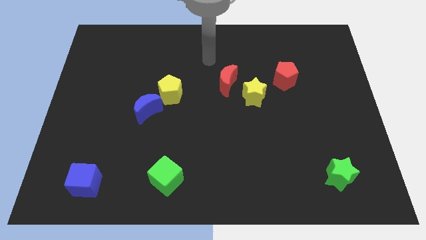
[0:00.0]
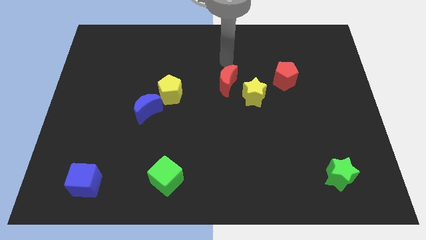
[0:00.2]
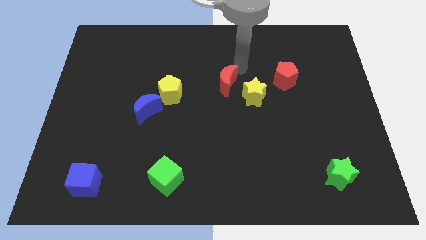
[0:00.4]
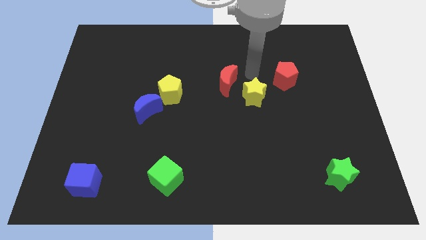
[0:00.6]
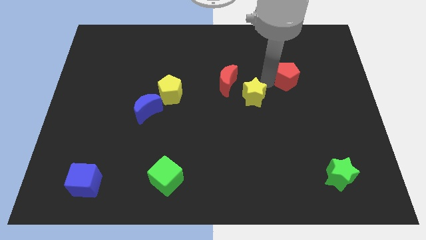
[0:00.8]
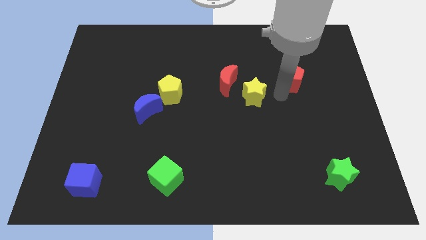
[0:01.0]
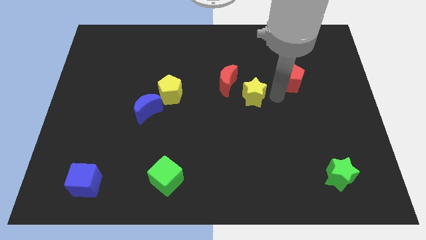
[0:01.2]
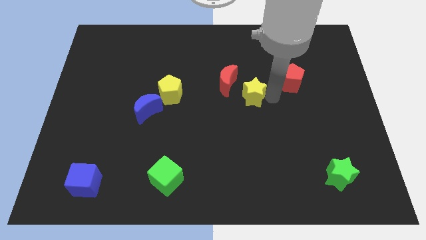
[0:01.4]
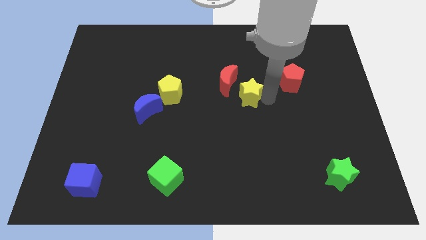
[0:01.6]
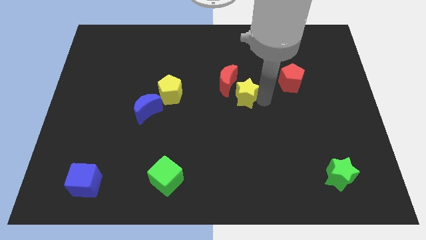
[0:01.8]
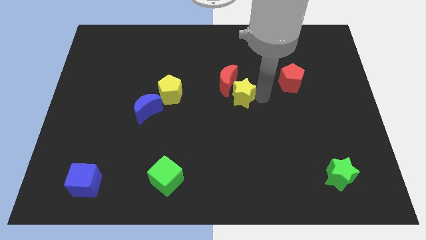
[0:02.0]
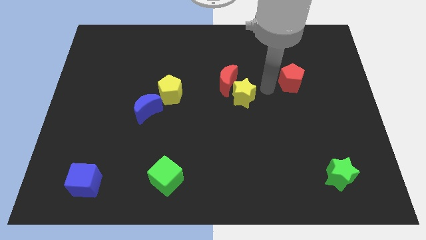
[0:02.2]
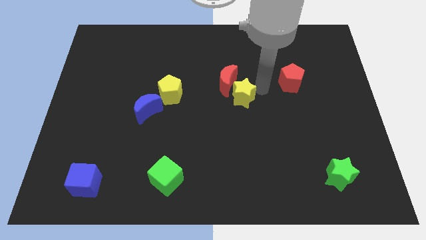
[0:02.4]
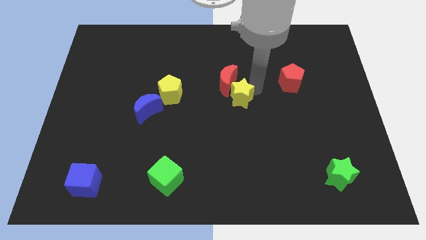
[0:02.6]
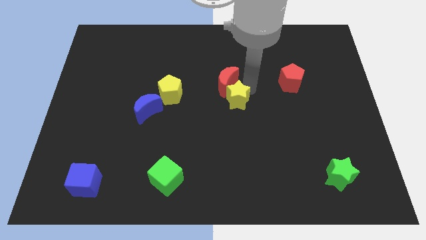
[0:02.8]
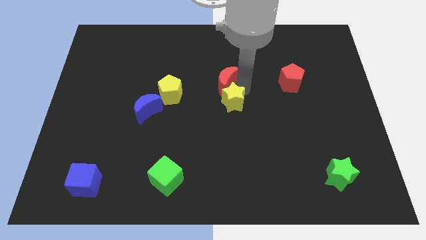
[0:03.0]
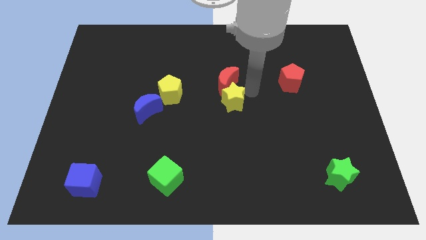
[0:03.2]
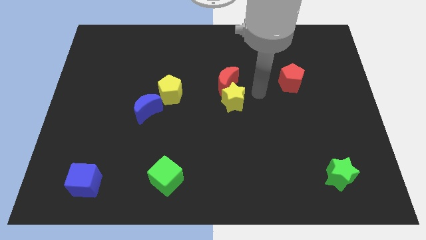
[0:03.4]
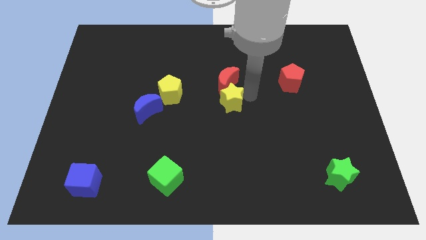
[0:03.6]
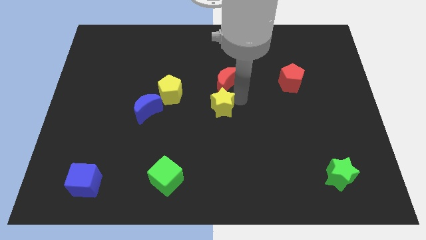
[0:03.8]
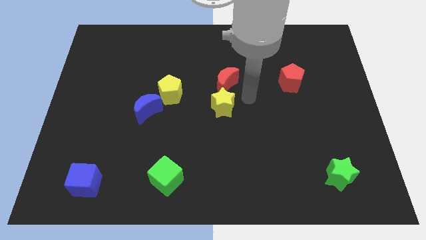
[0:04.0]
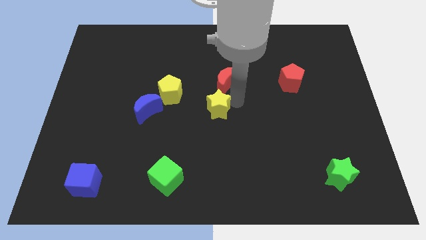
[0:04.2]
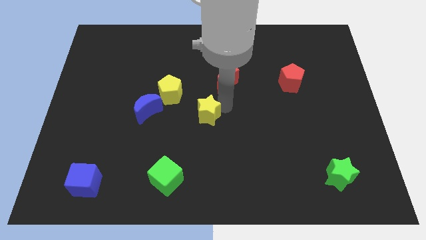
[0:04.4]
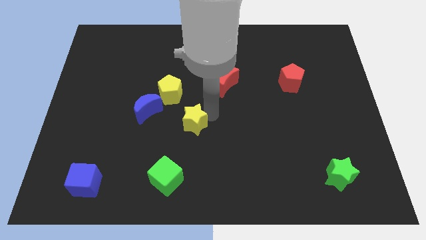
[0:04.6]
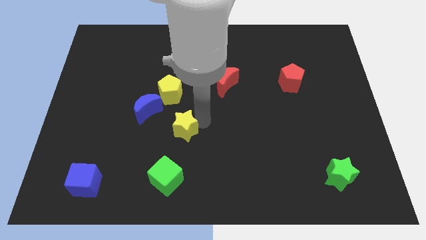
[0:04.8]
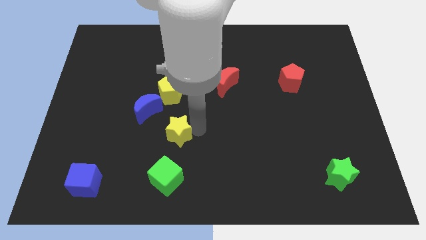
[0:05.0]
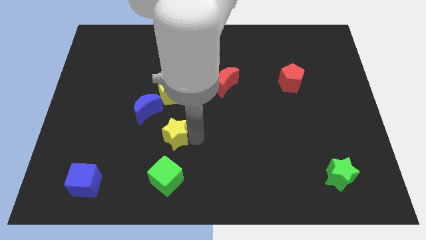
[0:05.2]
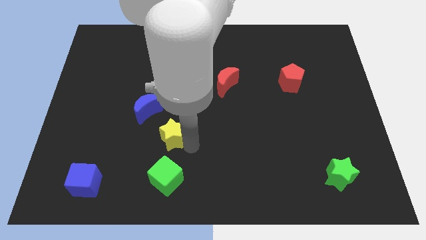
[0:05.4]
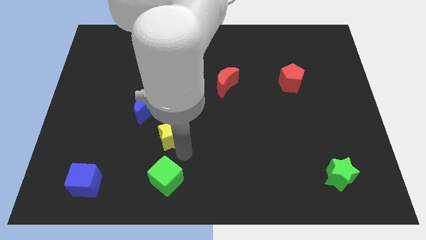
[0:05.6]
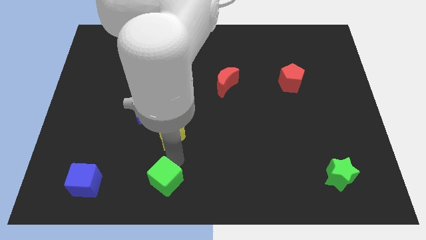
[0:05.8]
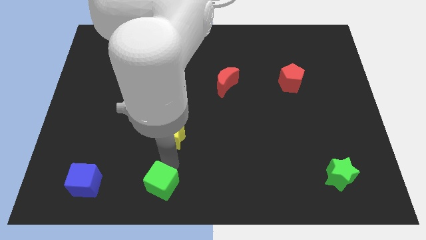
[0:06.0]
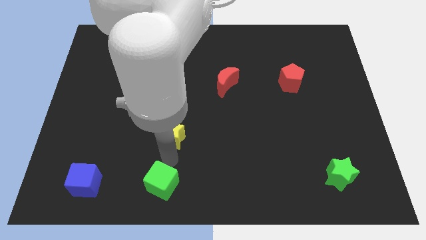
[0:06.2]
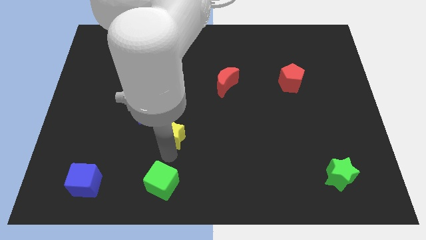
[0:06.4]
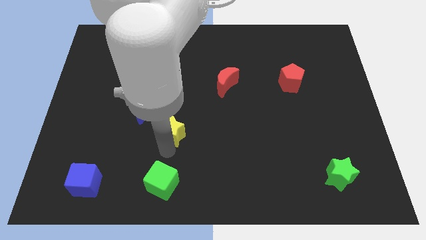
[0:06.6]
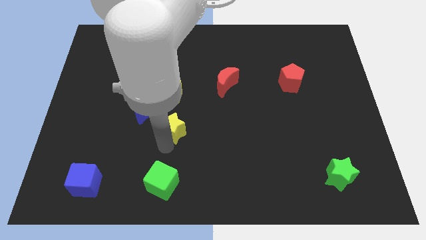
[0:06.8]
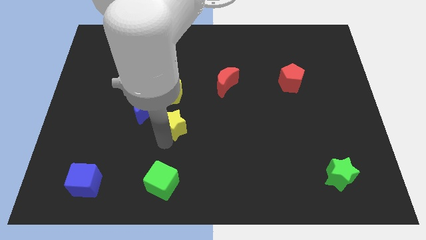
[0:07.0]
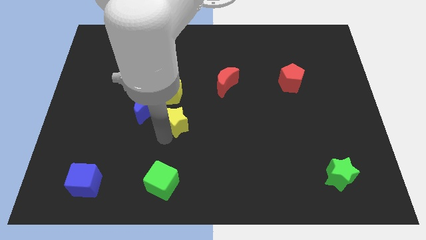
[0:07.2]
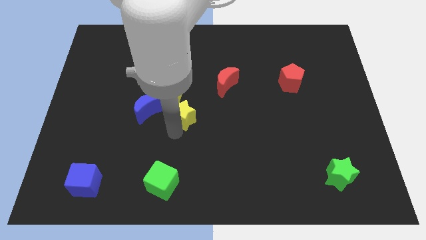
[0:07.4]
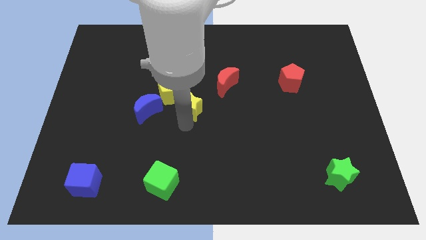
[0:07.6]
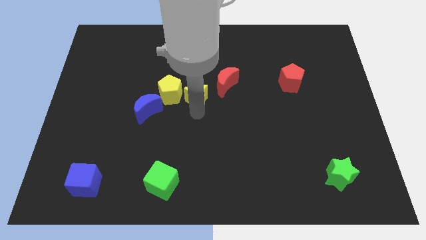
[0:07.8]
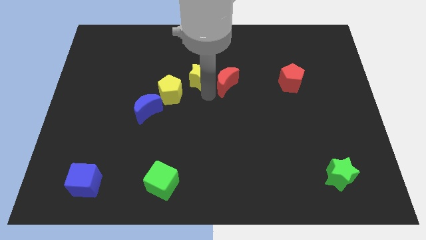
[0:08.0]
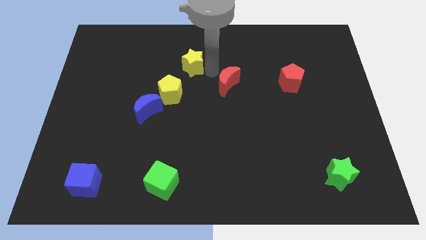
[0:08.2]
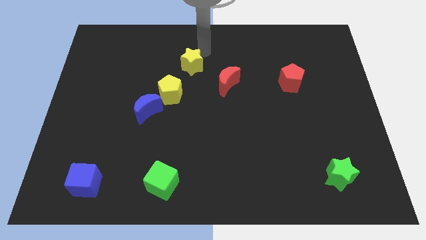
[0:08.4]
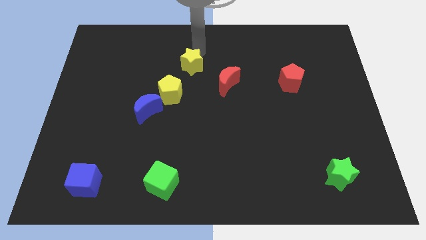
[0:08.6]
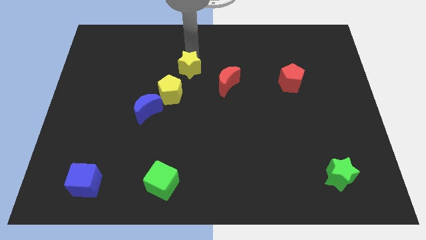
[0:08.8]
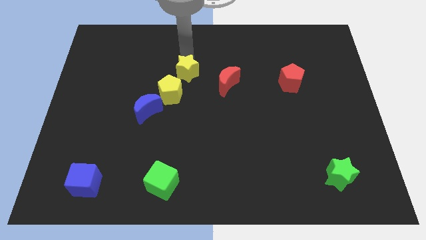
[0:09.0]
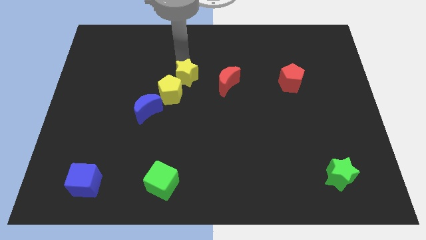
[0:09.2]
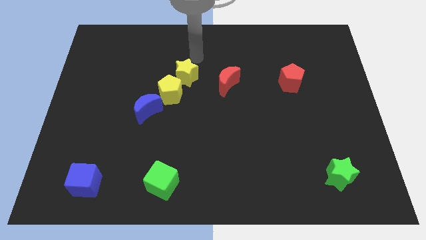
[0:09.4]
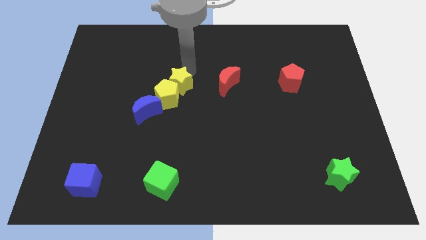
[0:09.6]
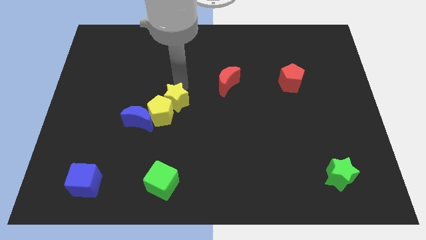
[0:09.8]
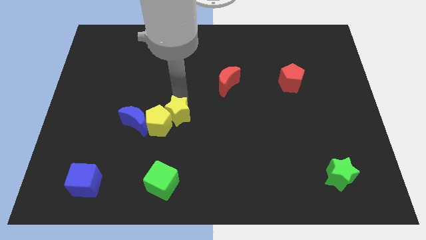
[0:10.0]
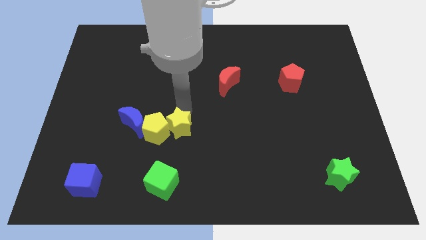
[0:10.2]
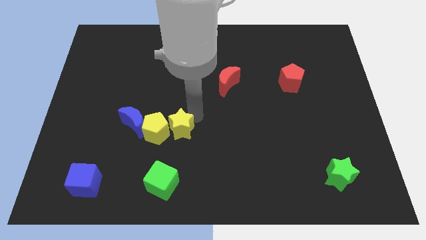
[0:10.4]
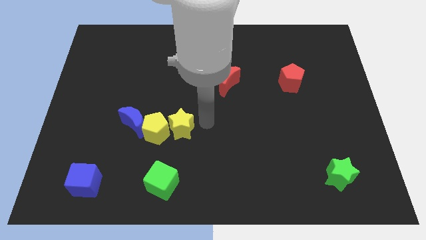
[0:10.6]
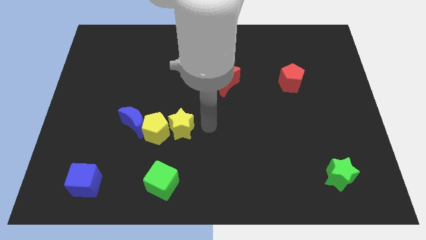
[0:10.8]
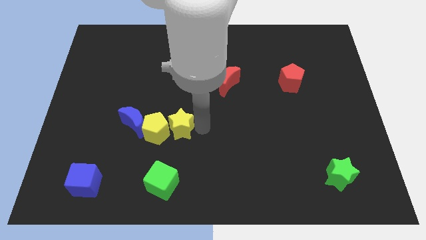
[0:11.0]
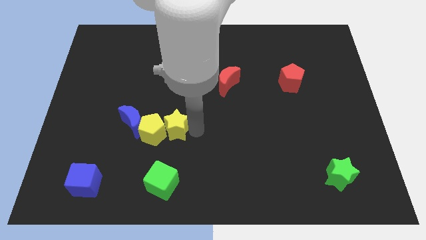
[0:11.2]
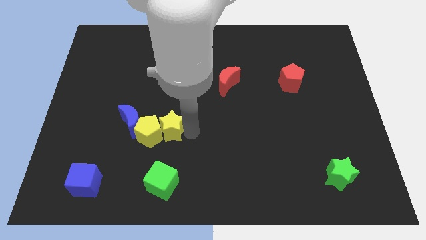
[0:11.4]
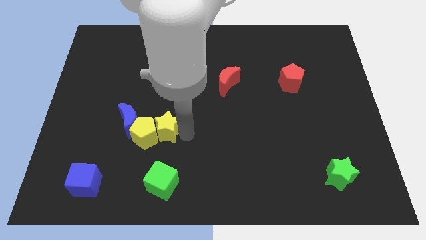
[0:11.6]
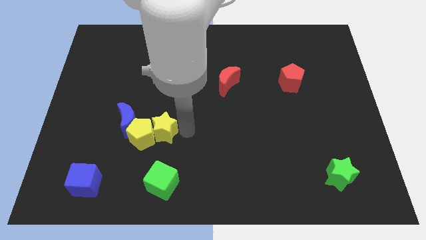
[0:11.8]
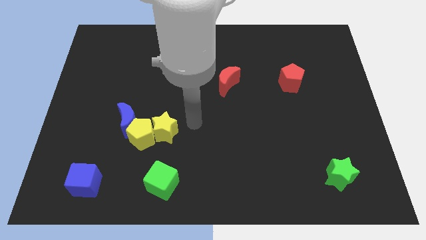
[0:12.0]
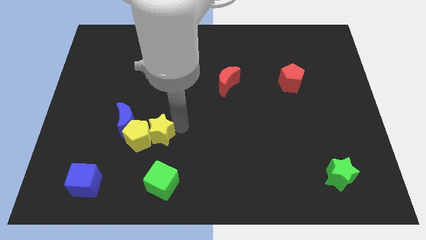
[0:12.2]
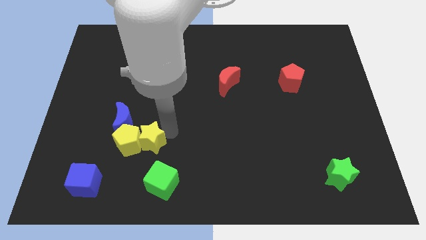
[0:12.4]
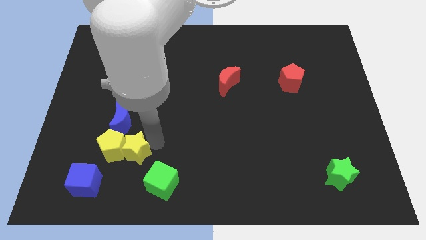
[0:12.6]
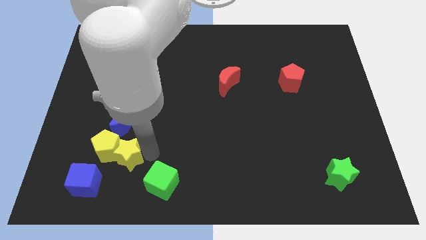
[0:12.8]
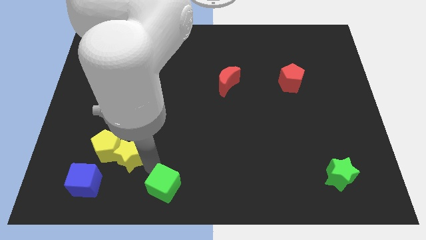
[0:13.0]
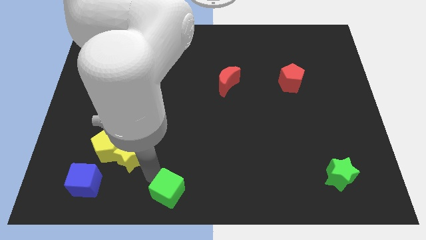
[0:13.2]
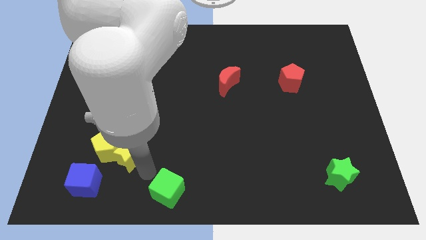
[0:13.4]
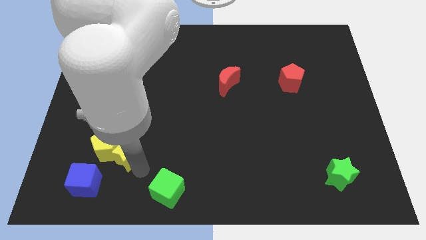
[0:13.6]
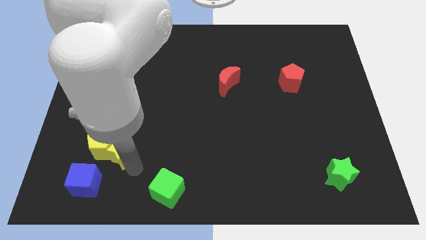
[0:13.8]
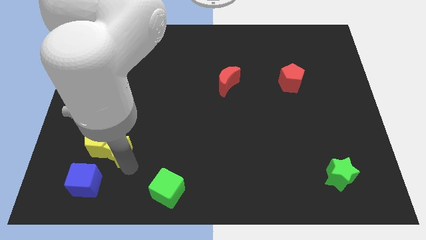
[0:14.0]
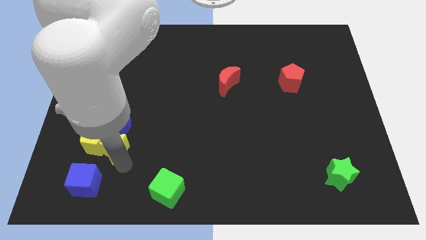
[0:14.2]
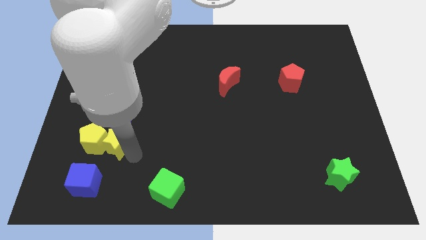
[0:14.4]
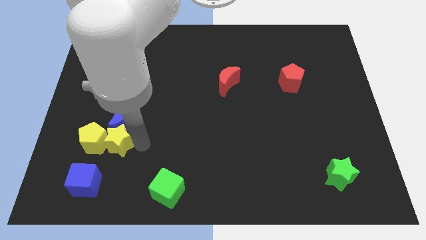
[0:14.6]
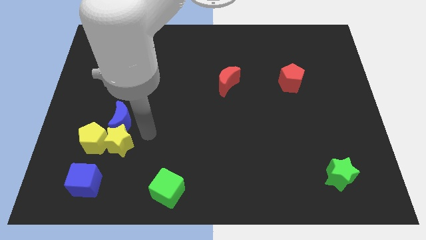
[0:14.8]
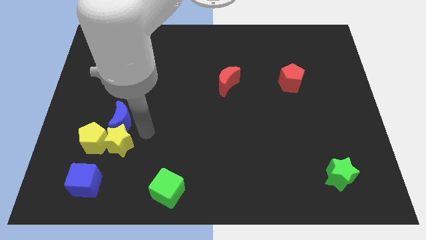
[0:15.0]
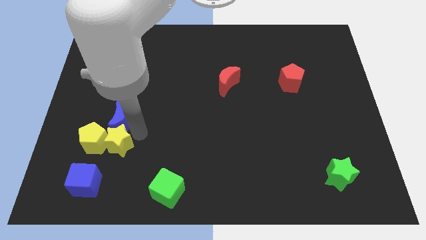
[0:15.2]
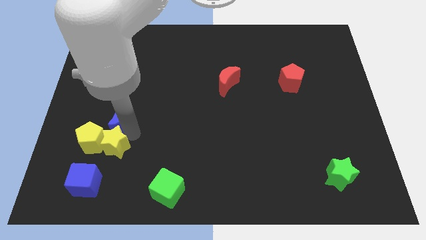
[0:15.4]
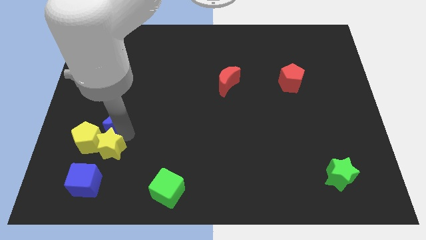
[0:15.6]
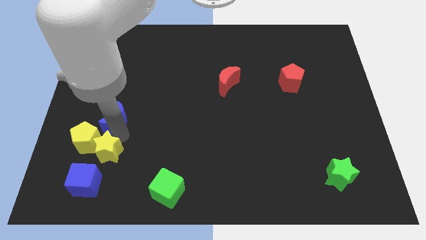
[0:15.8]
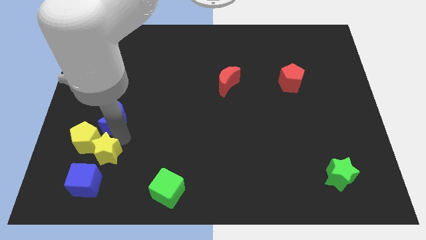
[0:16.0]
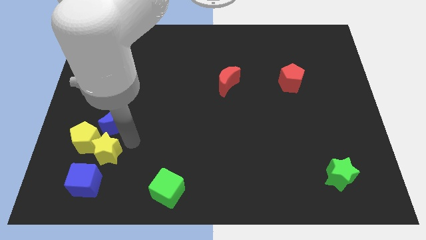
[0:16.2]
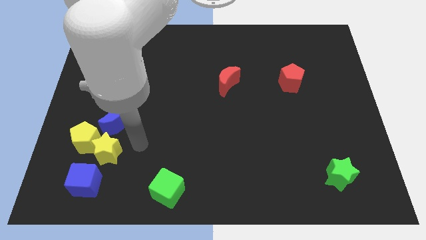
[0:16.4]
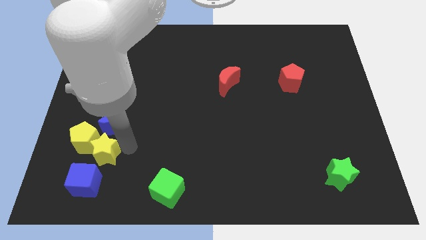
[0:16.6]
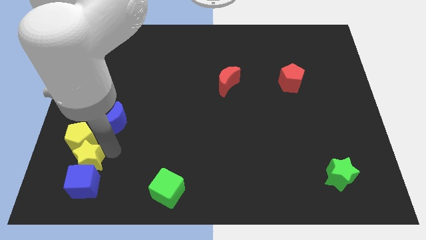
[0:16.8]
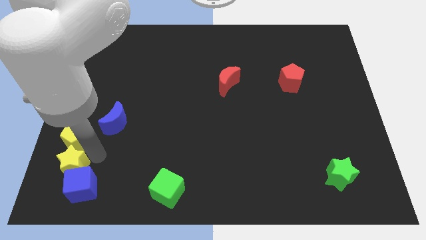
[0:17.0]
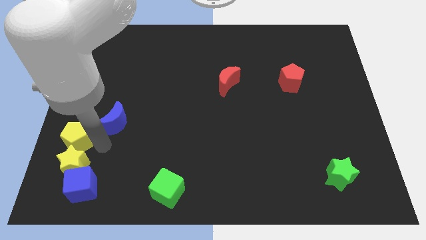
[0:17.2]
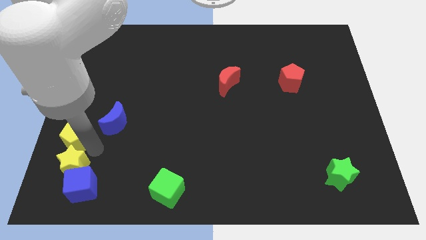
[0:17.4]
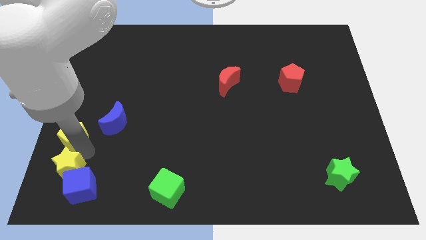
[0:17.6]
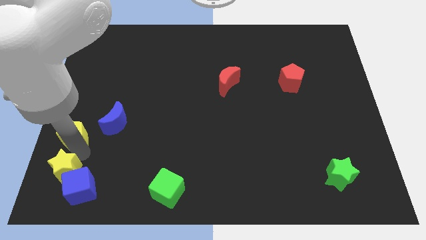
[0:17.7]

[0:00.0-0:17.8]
slide the yellow star to the bottom left corner
